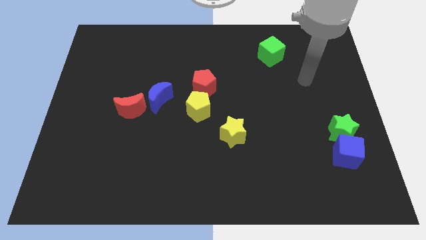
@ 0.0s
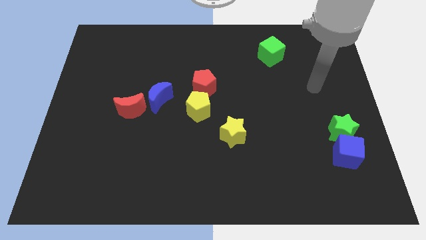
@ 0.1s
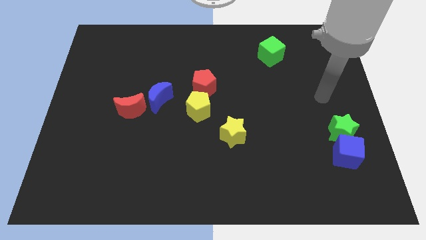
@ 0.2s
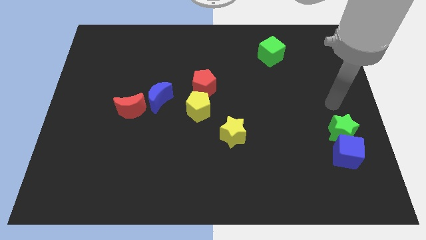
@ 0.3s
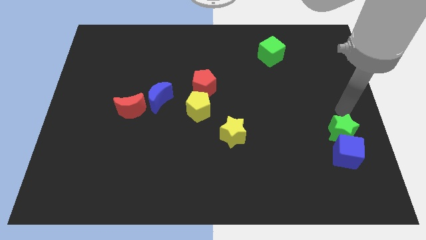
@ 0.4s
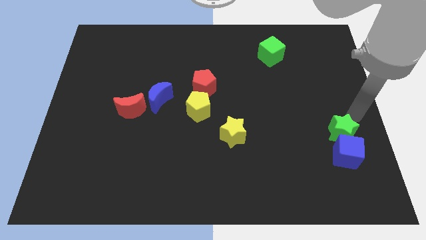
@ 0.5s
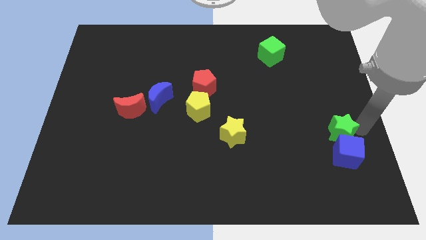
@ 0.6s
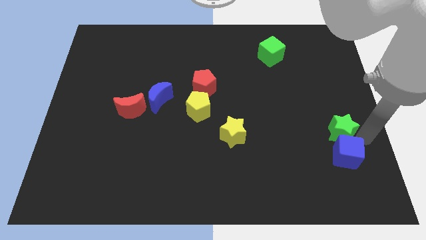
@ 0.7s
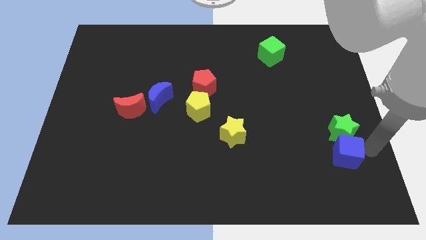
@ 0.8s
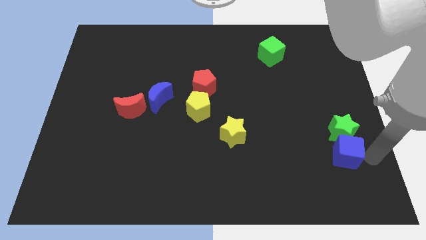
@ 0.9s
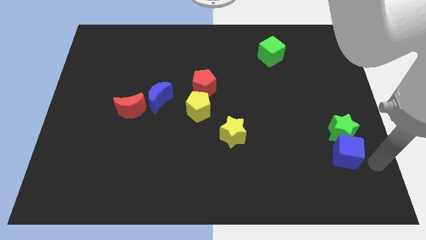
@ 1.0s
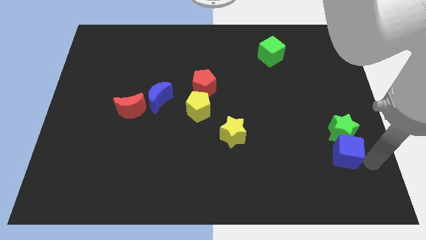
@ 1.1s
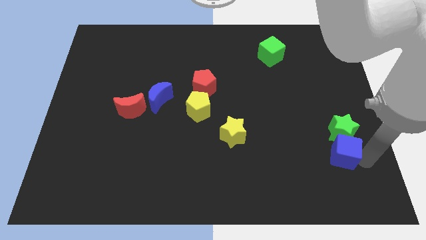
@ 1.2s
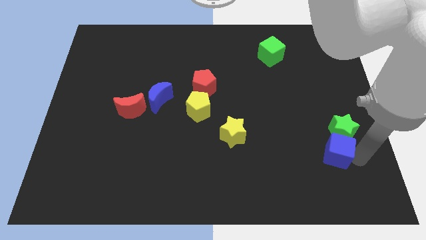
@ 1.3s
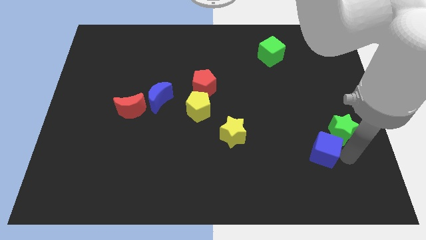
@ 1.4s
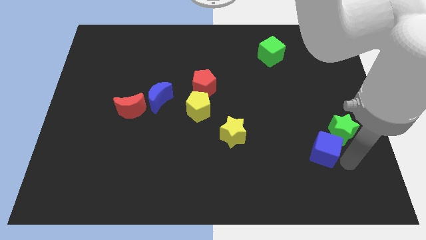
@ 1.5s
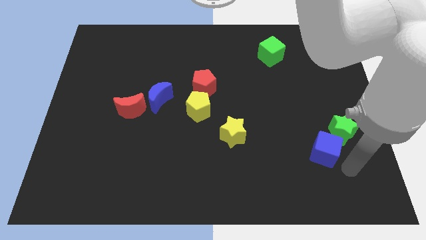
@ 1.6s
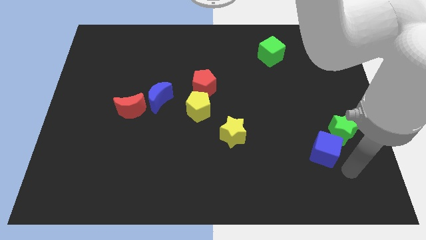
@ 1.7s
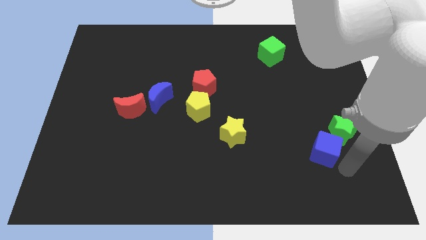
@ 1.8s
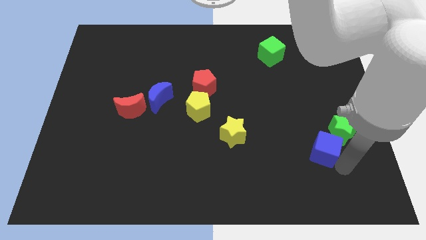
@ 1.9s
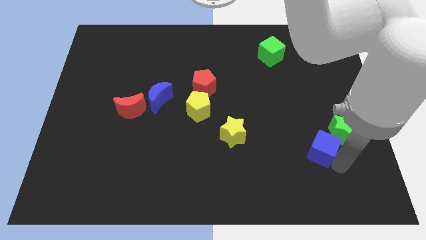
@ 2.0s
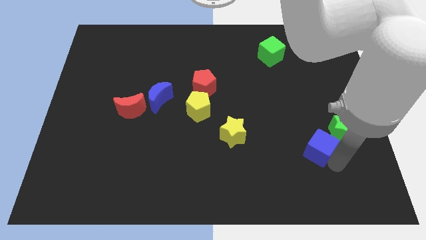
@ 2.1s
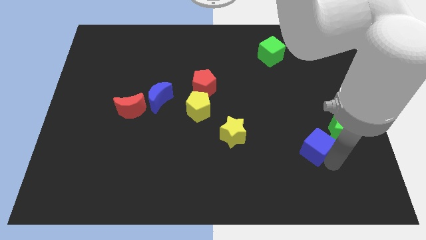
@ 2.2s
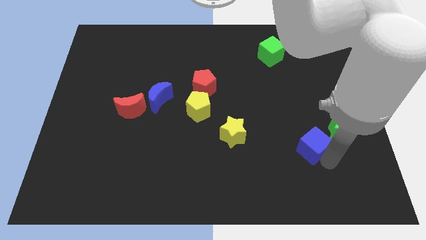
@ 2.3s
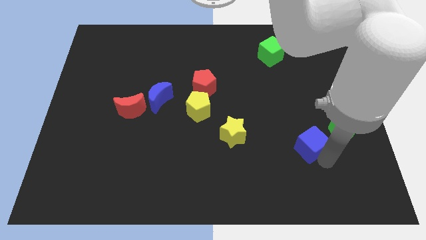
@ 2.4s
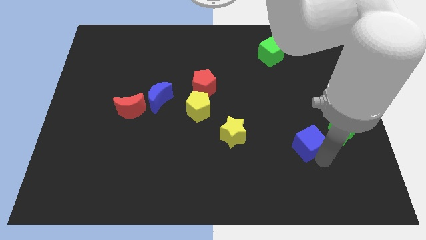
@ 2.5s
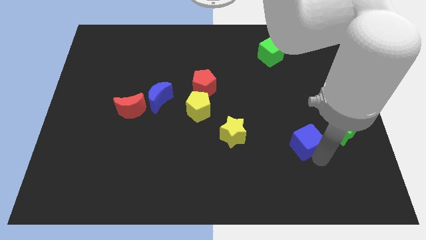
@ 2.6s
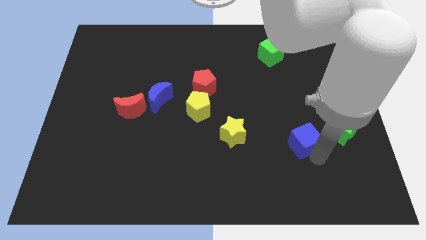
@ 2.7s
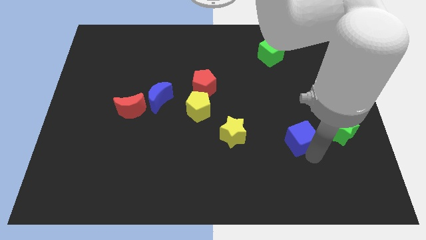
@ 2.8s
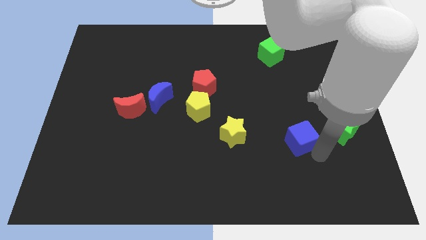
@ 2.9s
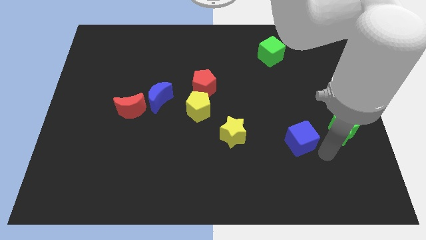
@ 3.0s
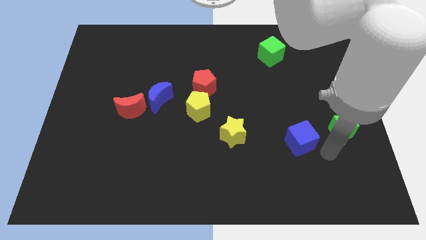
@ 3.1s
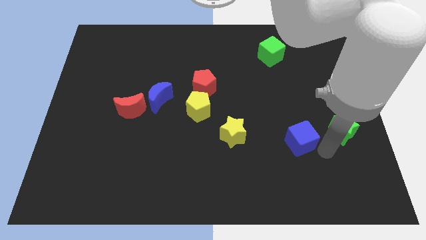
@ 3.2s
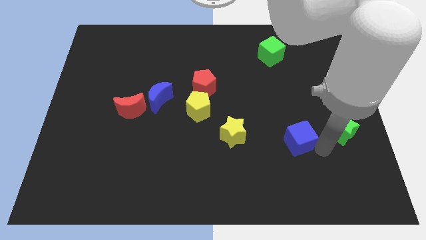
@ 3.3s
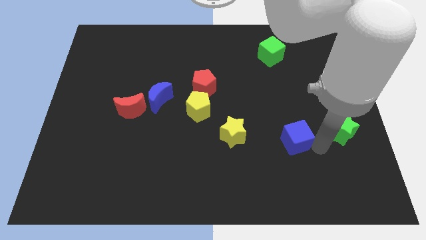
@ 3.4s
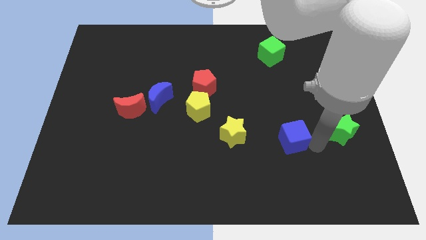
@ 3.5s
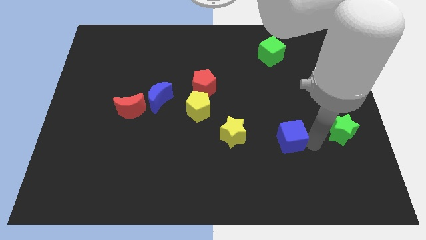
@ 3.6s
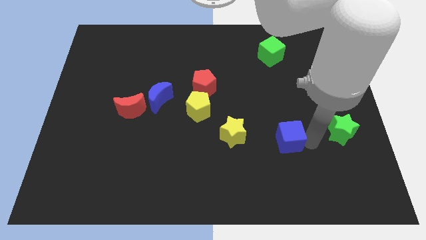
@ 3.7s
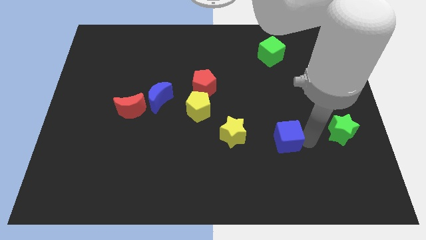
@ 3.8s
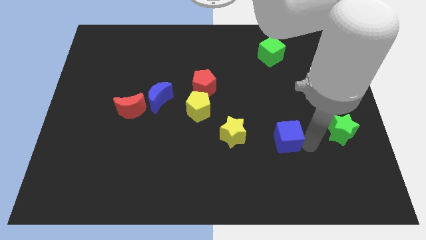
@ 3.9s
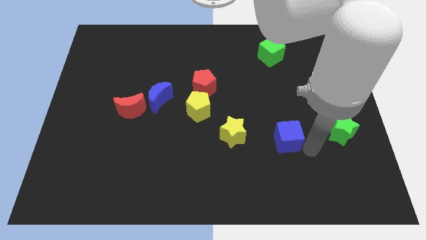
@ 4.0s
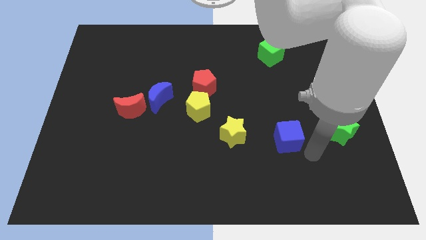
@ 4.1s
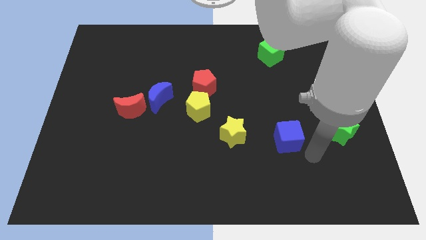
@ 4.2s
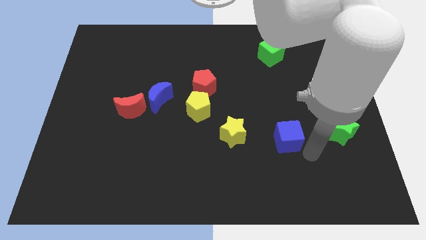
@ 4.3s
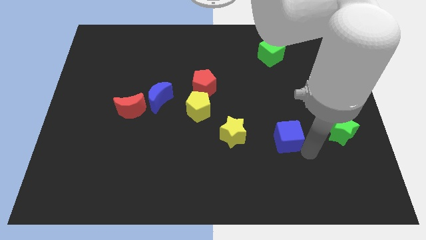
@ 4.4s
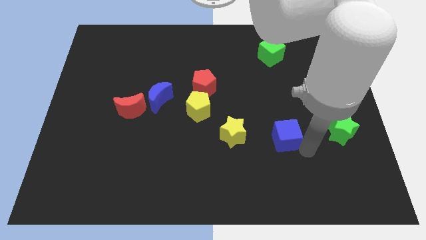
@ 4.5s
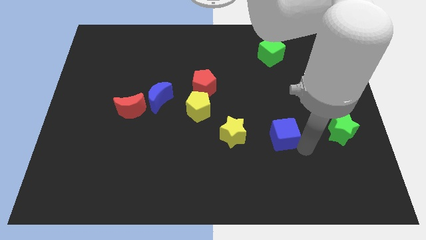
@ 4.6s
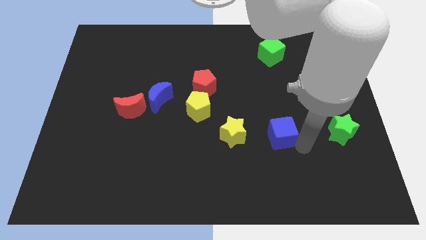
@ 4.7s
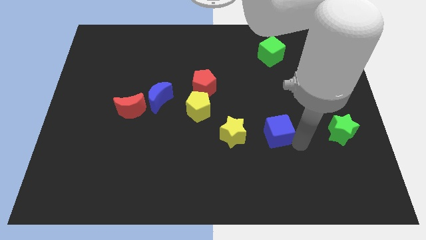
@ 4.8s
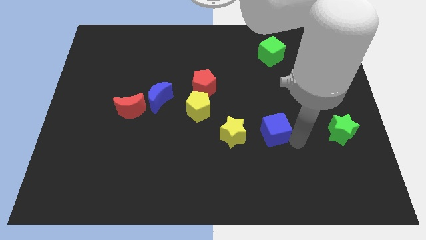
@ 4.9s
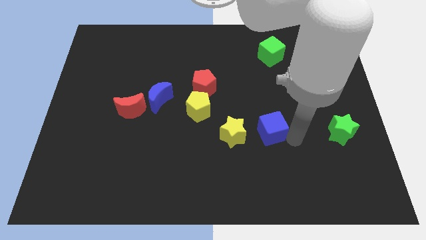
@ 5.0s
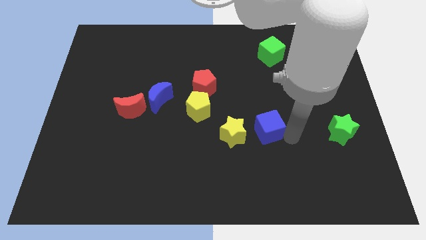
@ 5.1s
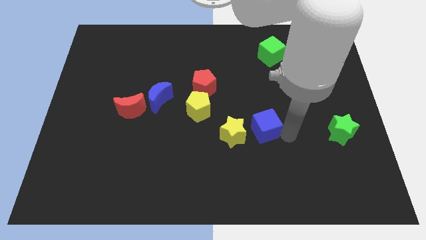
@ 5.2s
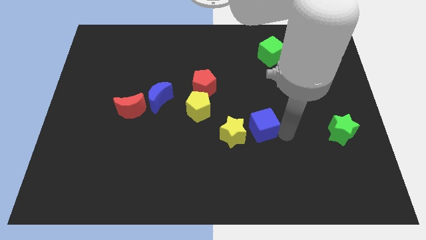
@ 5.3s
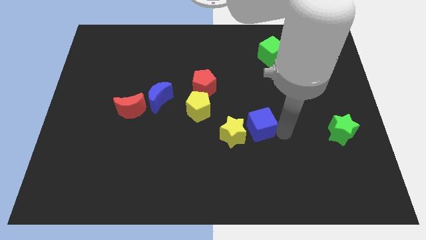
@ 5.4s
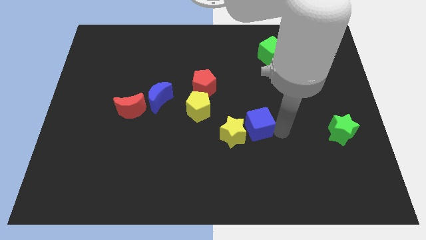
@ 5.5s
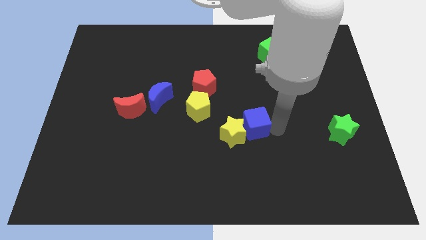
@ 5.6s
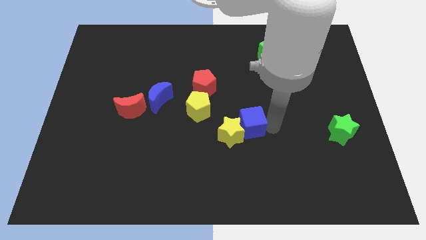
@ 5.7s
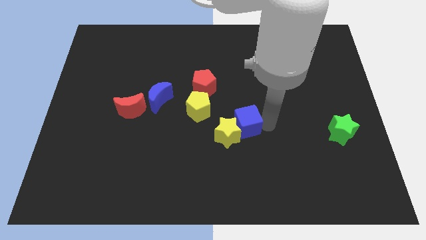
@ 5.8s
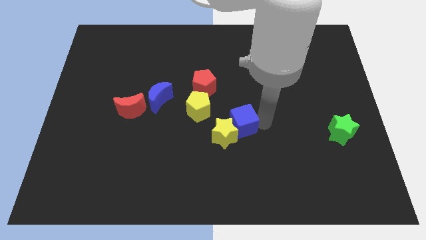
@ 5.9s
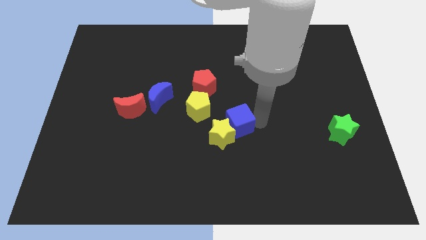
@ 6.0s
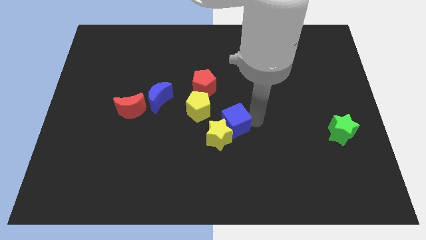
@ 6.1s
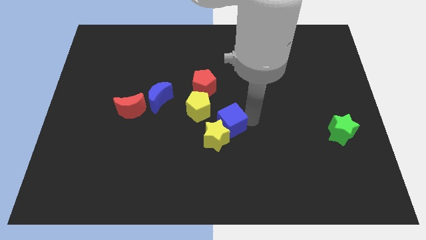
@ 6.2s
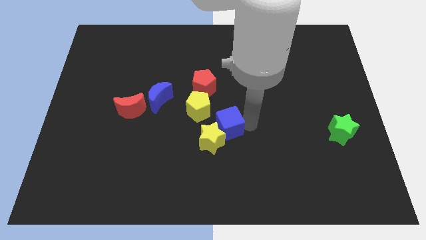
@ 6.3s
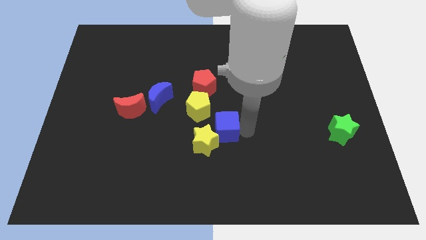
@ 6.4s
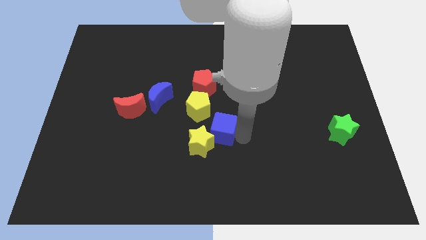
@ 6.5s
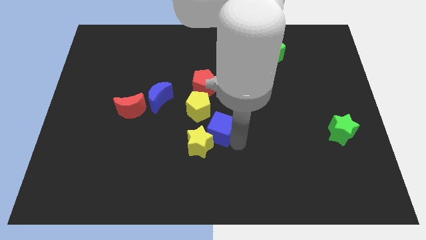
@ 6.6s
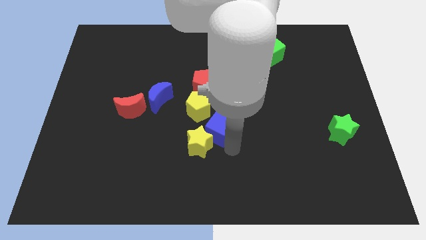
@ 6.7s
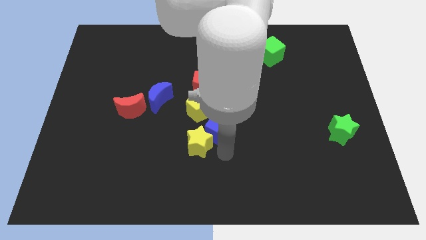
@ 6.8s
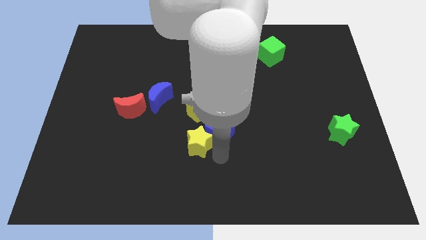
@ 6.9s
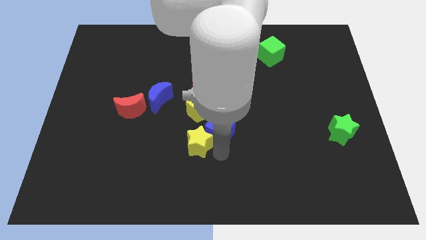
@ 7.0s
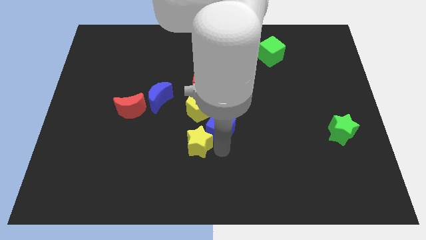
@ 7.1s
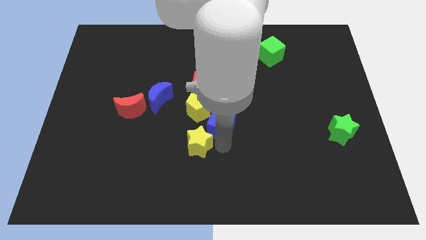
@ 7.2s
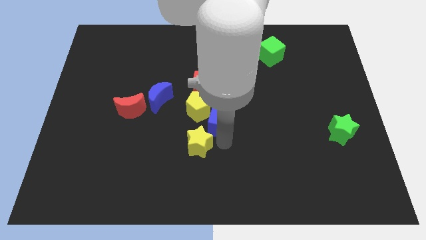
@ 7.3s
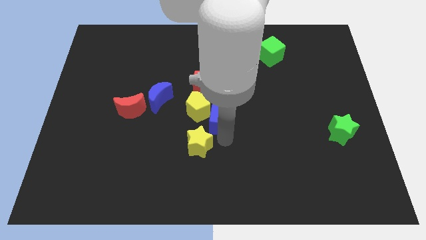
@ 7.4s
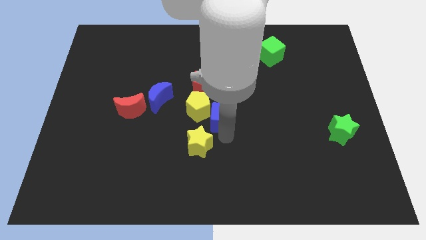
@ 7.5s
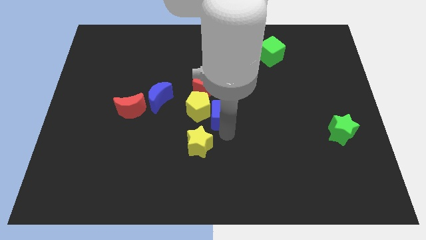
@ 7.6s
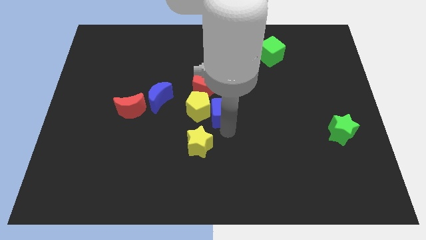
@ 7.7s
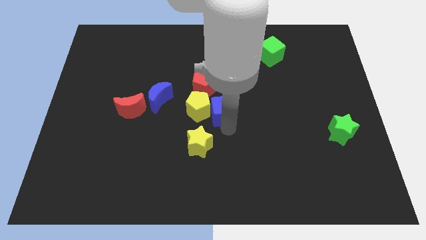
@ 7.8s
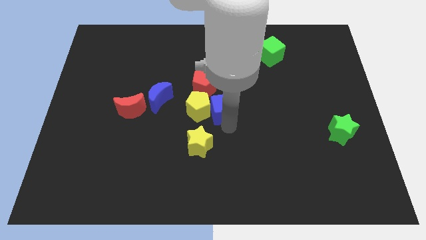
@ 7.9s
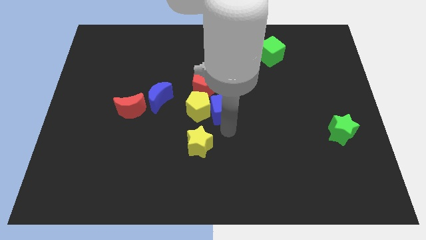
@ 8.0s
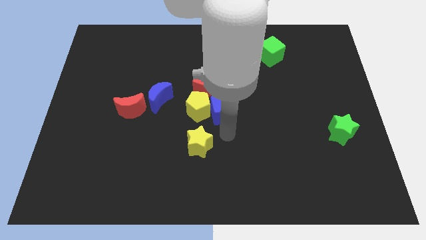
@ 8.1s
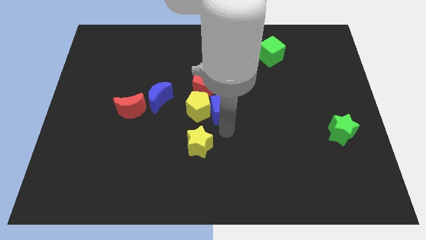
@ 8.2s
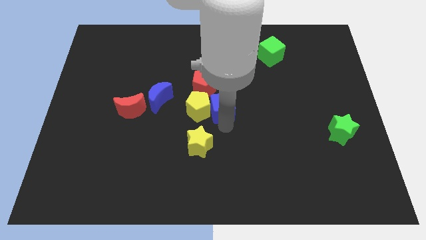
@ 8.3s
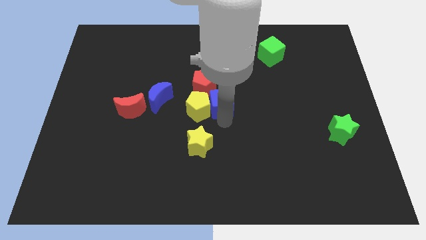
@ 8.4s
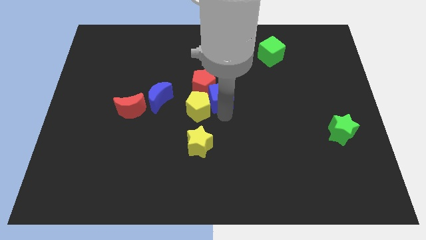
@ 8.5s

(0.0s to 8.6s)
put the blue cube close to the red pentagon
